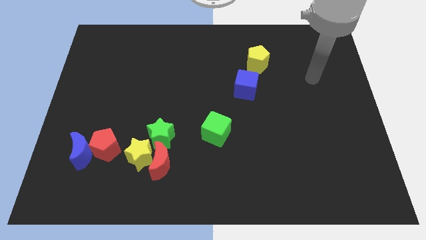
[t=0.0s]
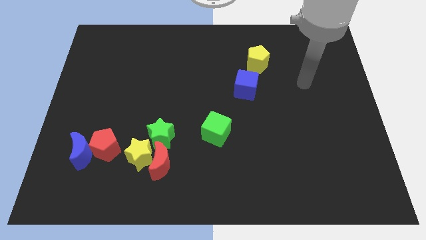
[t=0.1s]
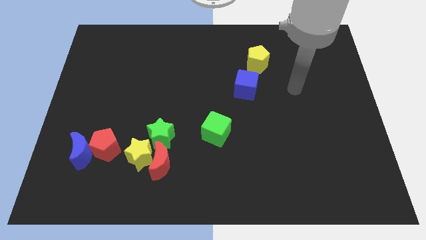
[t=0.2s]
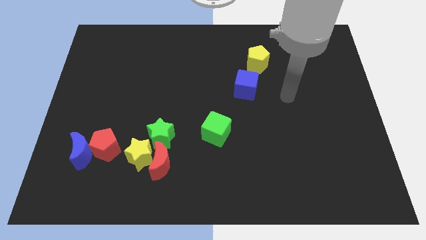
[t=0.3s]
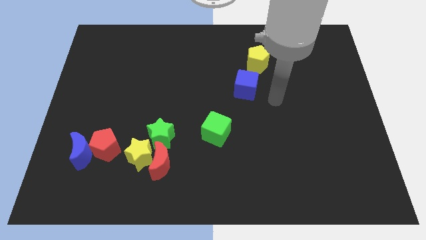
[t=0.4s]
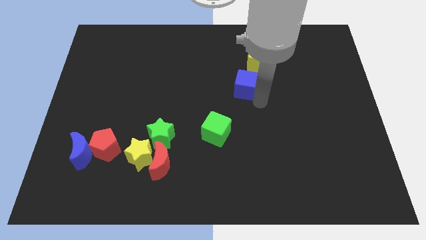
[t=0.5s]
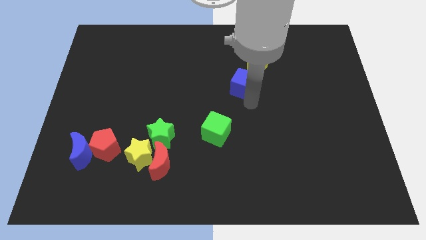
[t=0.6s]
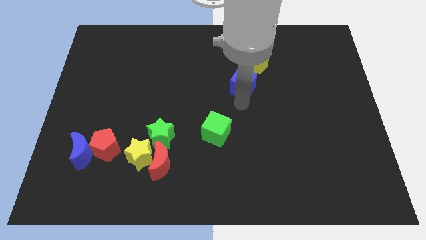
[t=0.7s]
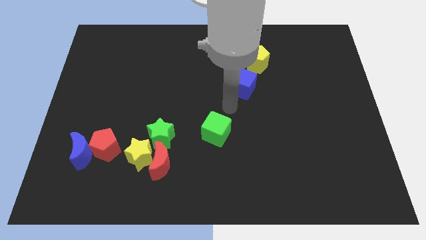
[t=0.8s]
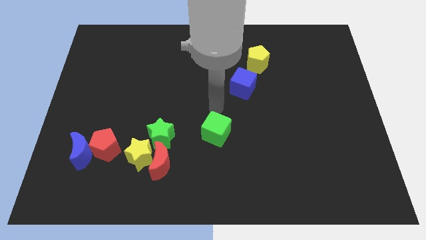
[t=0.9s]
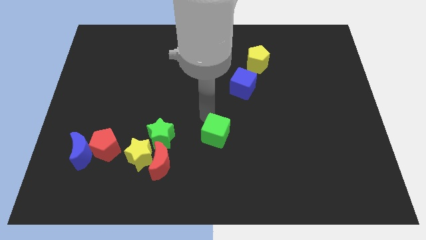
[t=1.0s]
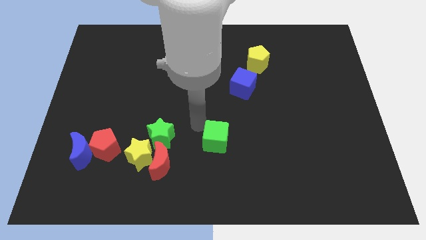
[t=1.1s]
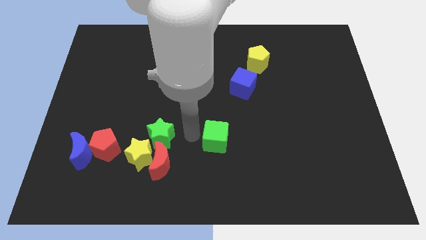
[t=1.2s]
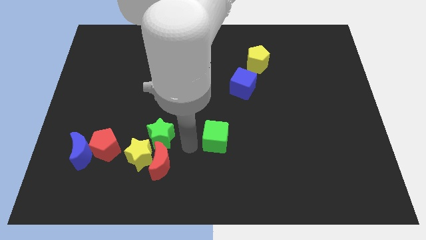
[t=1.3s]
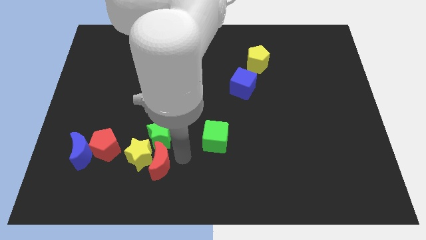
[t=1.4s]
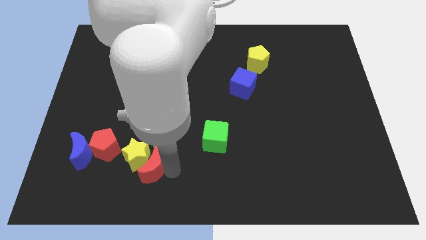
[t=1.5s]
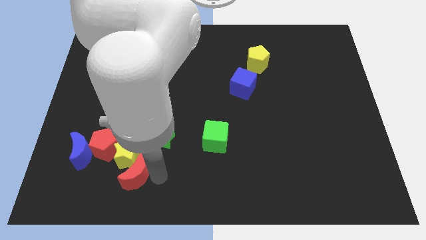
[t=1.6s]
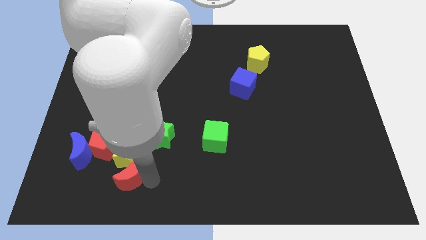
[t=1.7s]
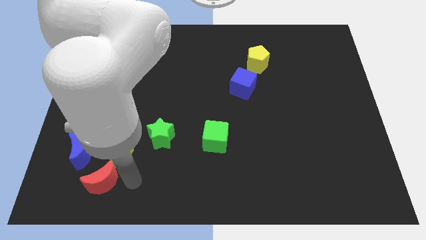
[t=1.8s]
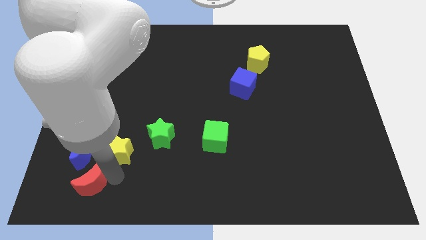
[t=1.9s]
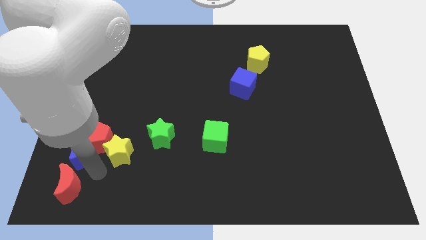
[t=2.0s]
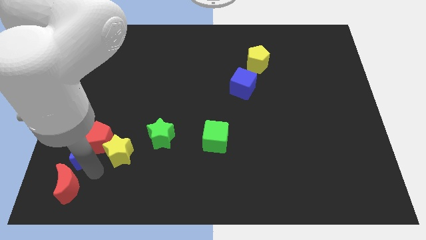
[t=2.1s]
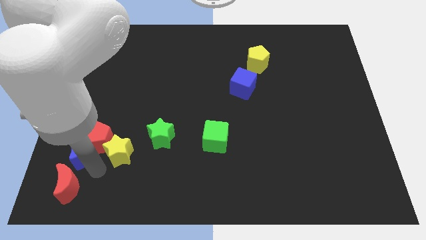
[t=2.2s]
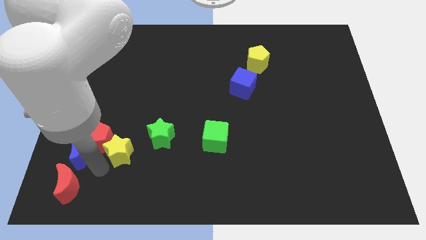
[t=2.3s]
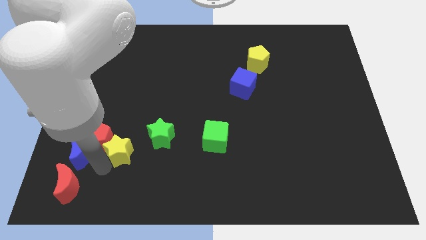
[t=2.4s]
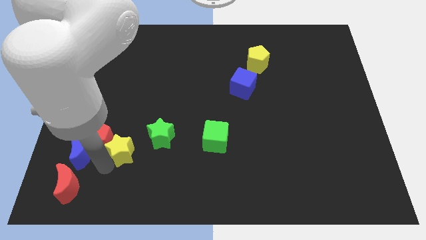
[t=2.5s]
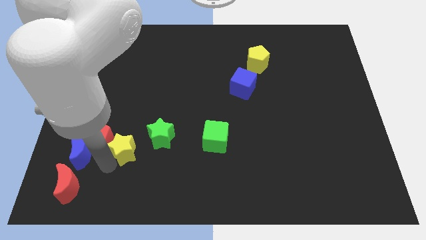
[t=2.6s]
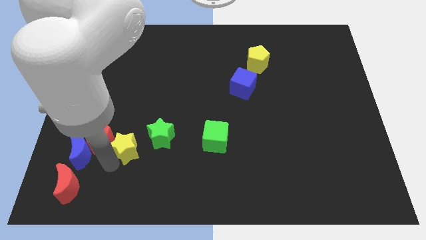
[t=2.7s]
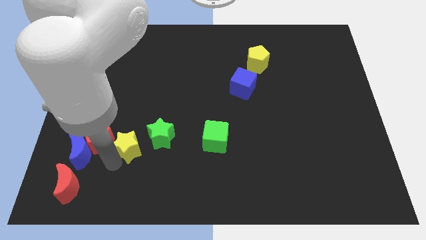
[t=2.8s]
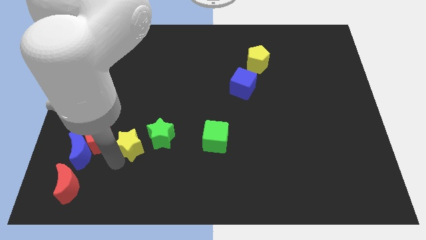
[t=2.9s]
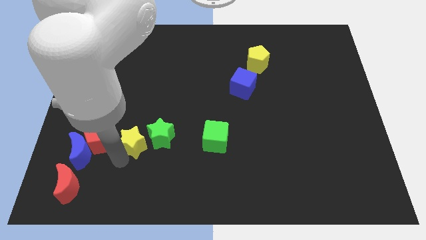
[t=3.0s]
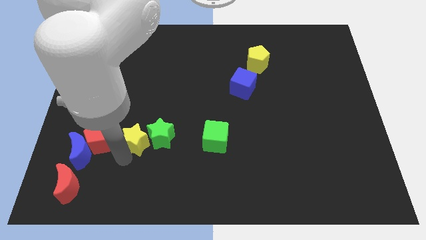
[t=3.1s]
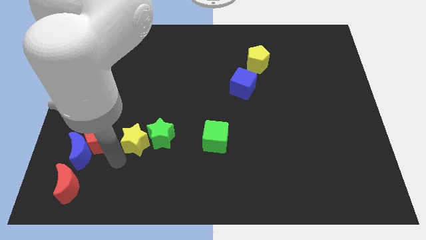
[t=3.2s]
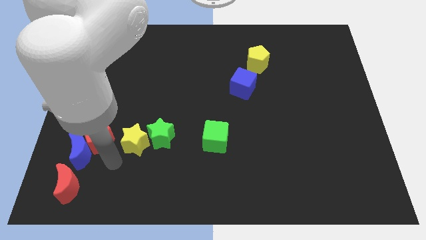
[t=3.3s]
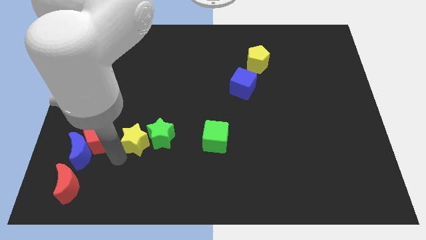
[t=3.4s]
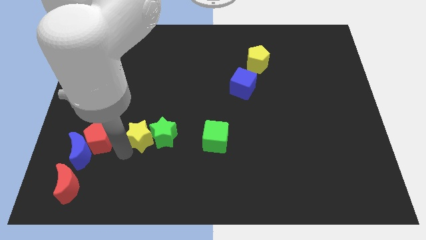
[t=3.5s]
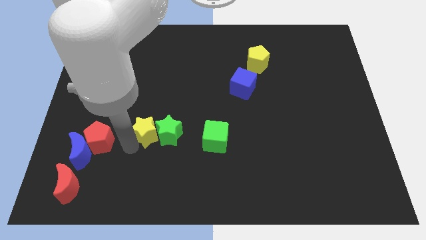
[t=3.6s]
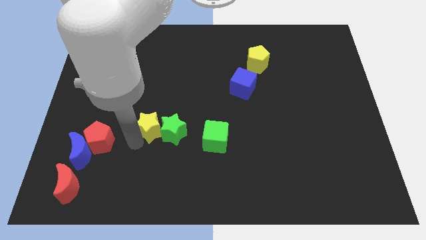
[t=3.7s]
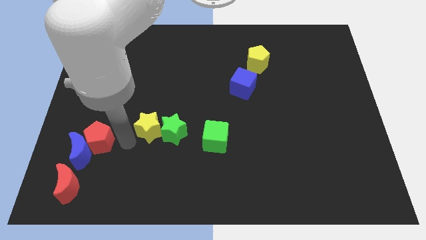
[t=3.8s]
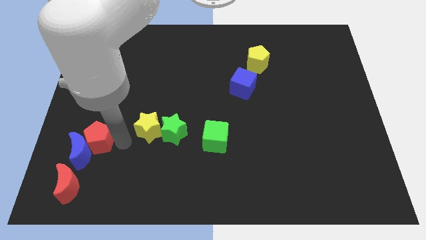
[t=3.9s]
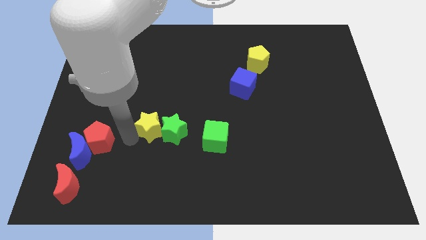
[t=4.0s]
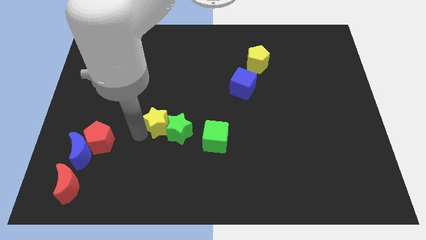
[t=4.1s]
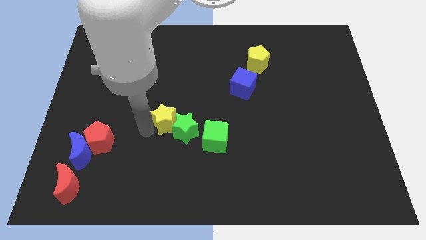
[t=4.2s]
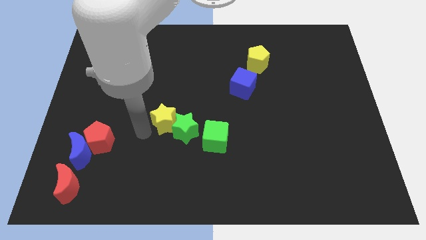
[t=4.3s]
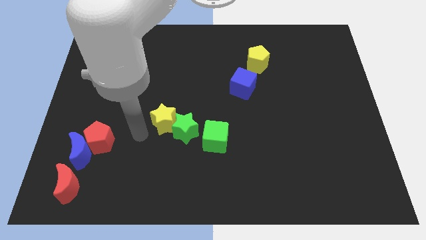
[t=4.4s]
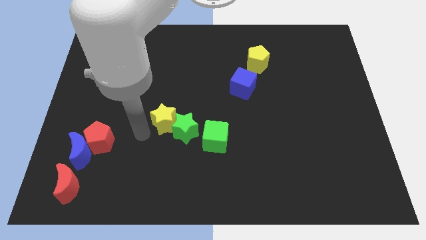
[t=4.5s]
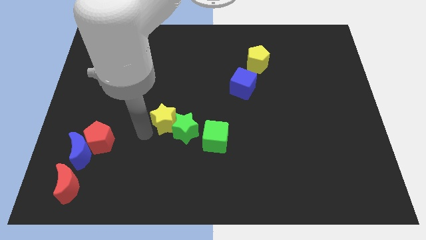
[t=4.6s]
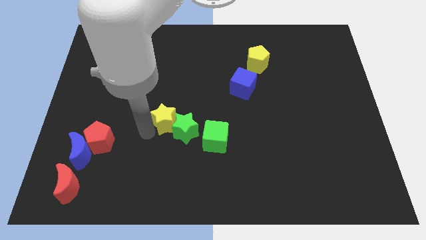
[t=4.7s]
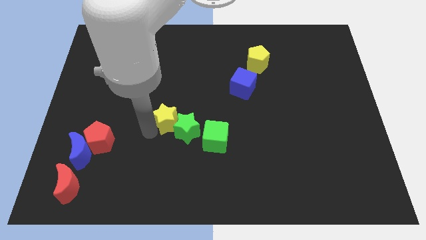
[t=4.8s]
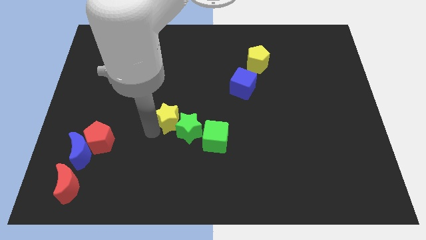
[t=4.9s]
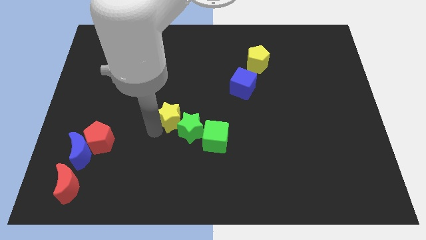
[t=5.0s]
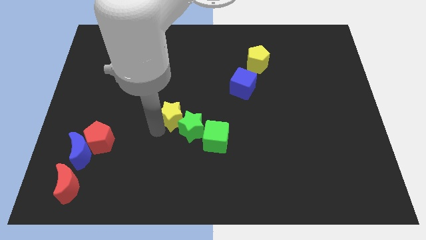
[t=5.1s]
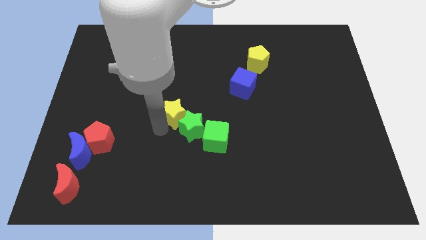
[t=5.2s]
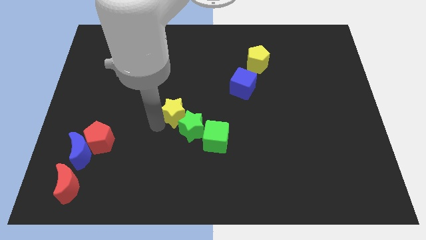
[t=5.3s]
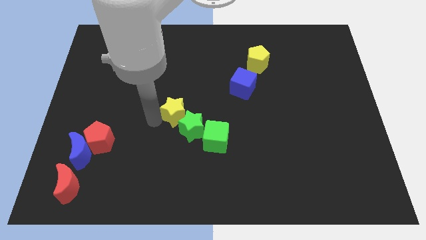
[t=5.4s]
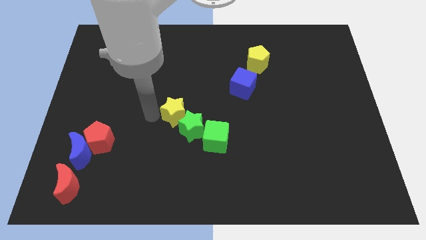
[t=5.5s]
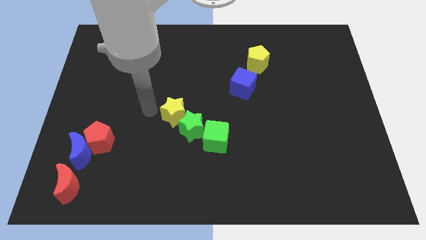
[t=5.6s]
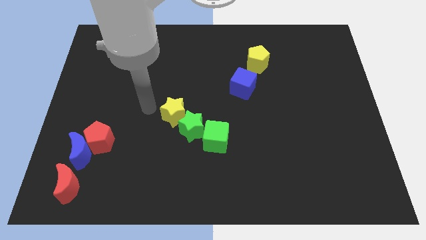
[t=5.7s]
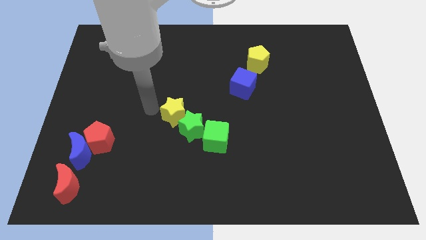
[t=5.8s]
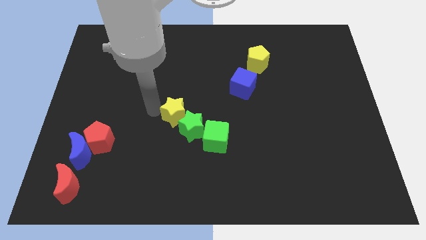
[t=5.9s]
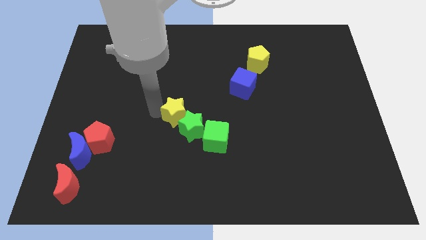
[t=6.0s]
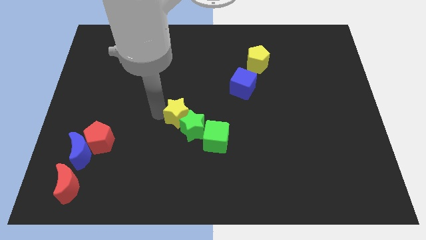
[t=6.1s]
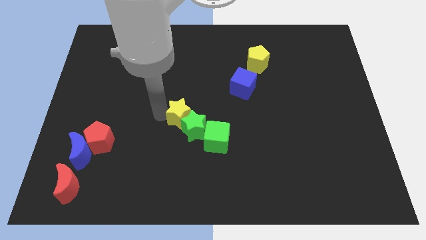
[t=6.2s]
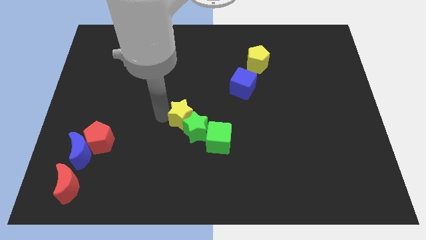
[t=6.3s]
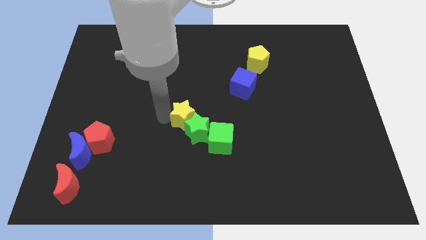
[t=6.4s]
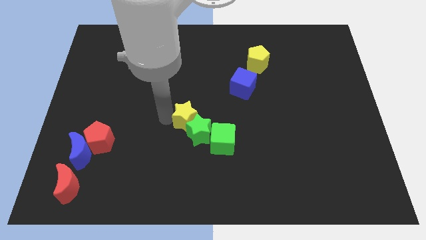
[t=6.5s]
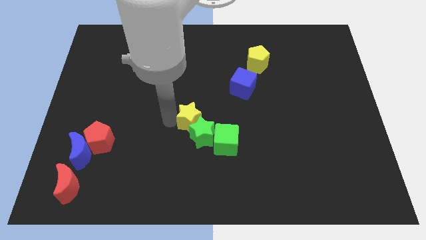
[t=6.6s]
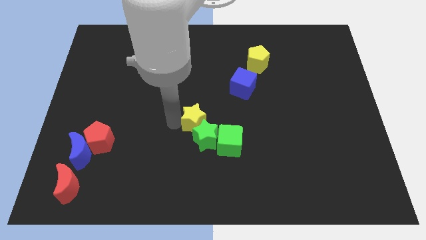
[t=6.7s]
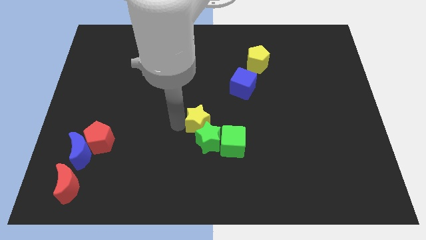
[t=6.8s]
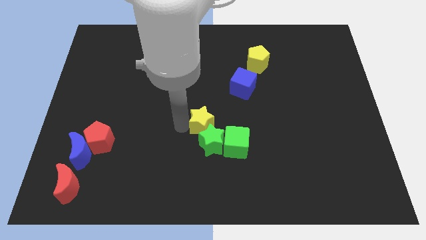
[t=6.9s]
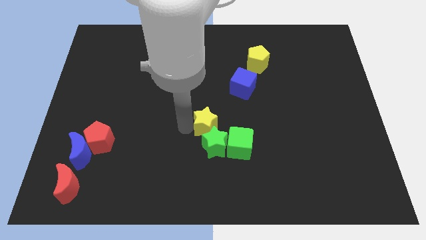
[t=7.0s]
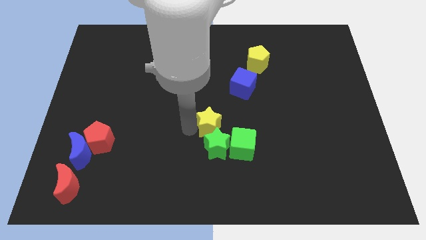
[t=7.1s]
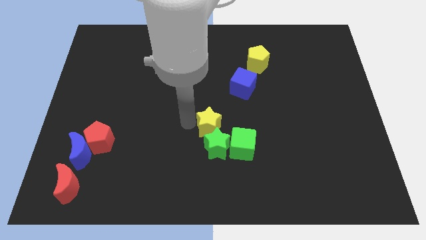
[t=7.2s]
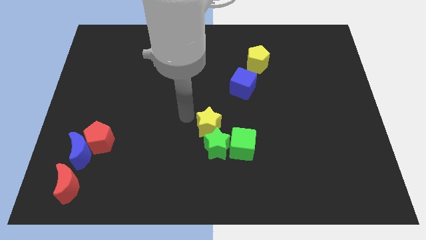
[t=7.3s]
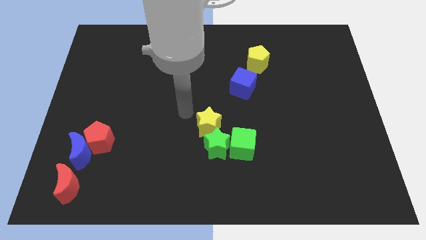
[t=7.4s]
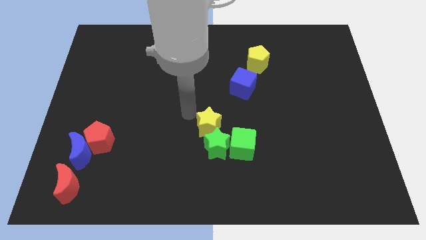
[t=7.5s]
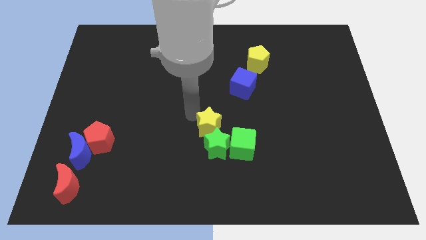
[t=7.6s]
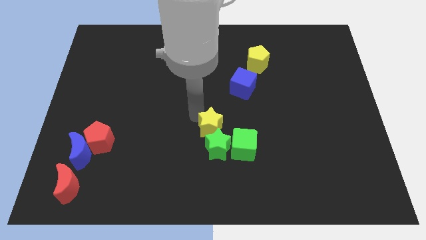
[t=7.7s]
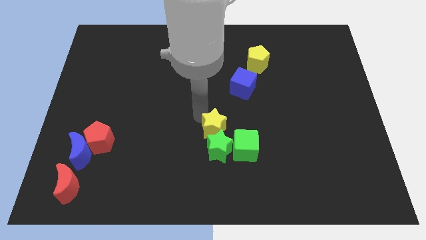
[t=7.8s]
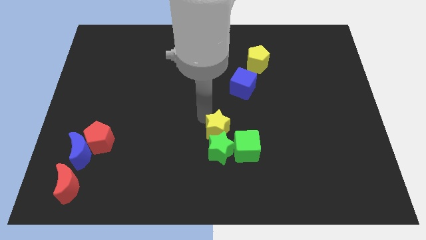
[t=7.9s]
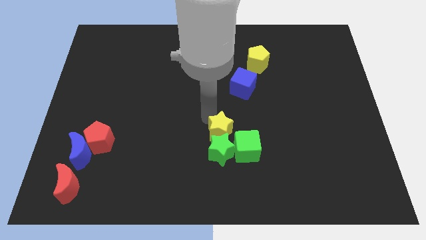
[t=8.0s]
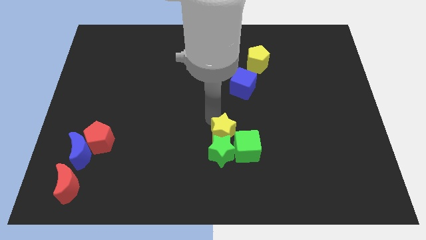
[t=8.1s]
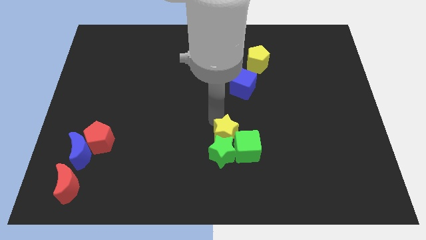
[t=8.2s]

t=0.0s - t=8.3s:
push the yellow star towards the green cube
